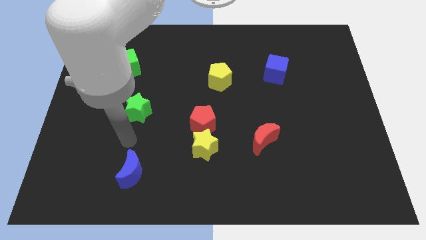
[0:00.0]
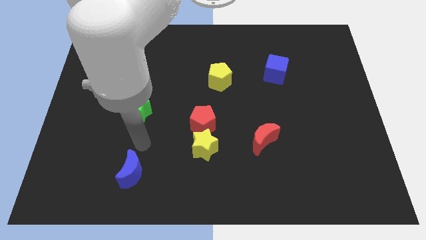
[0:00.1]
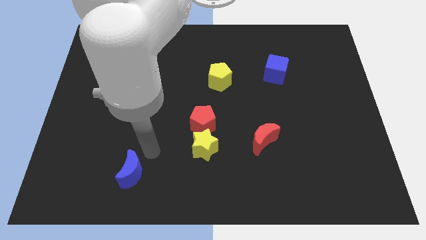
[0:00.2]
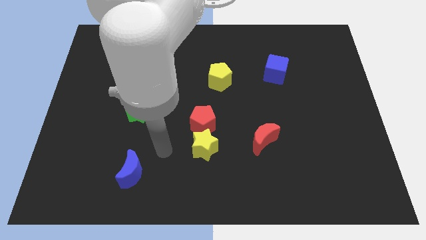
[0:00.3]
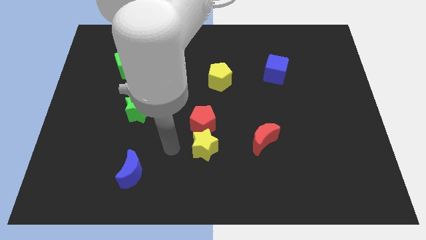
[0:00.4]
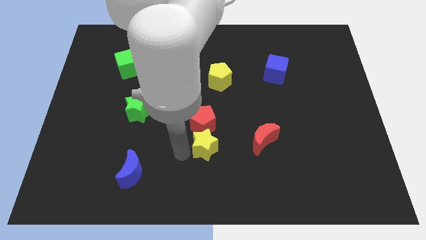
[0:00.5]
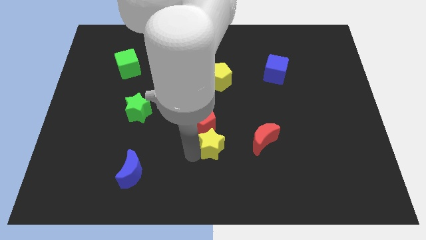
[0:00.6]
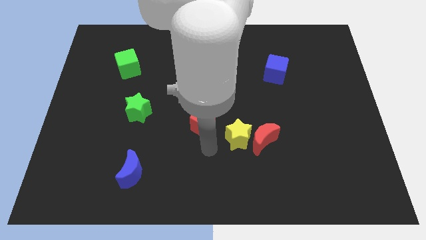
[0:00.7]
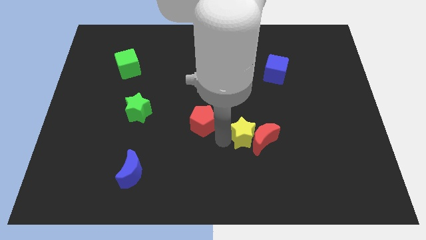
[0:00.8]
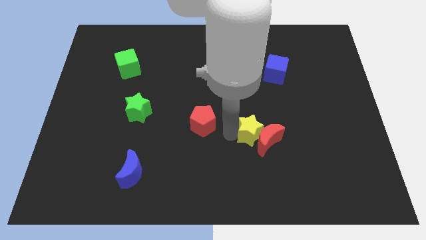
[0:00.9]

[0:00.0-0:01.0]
move the red pentagon away from the yellow star

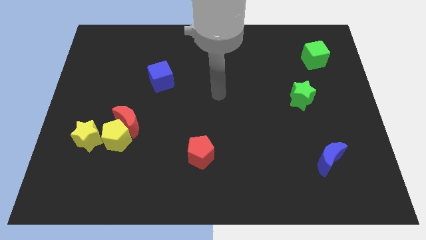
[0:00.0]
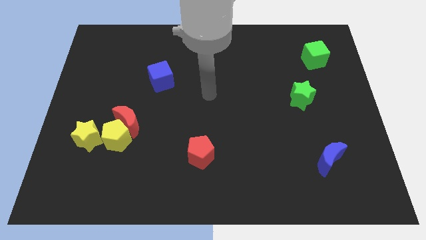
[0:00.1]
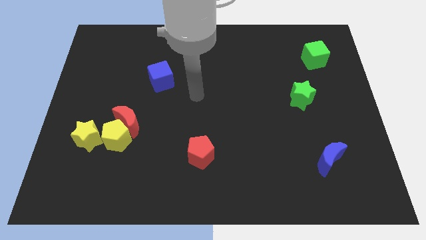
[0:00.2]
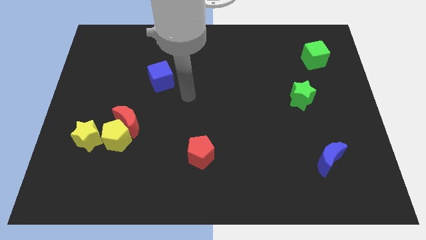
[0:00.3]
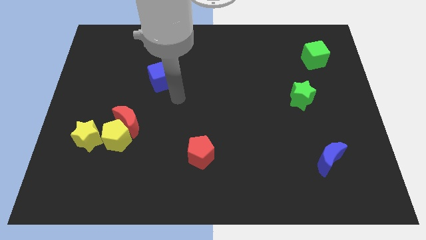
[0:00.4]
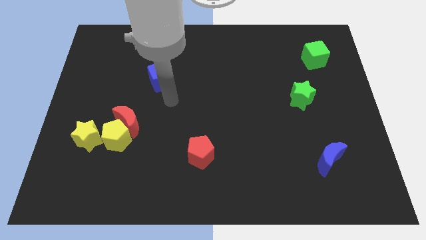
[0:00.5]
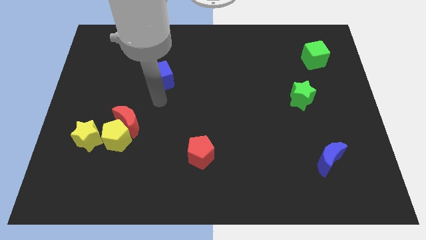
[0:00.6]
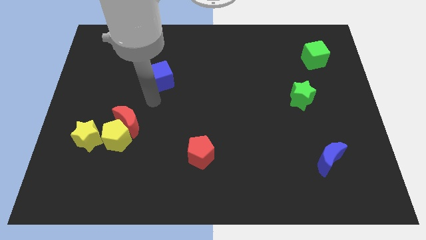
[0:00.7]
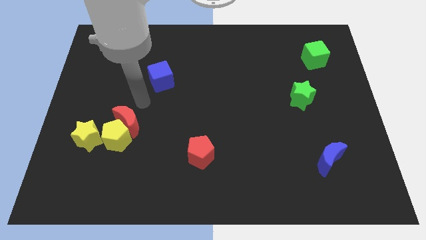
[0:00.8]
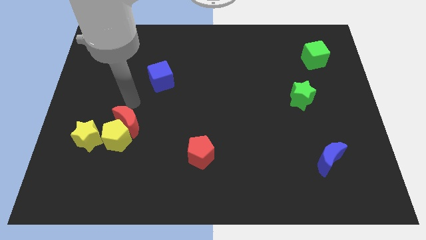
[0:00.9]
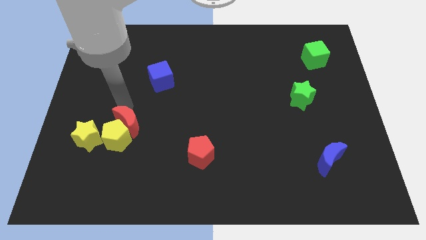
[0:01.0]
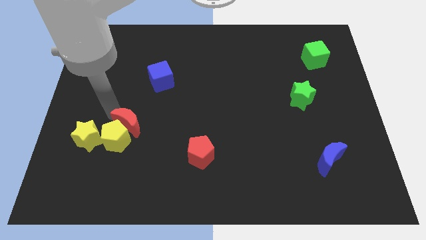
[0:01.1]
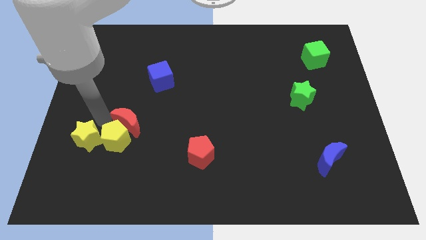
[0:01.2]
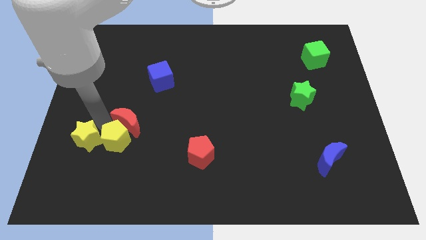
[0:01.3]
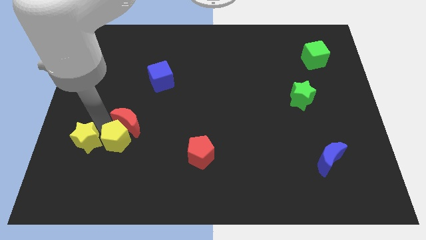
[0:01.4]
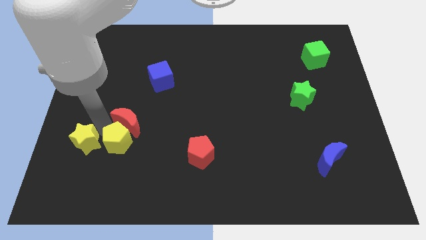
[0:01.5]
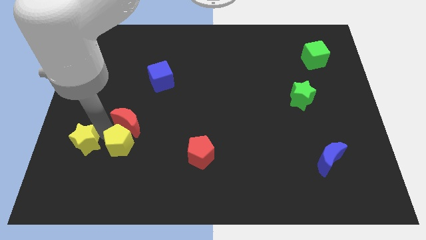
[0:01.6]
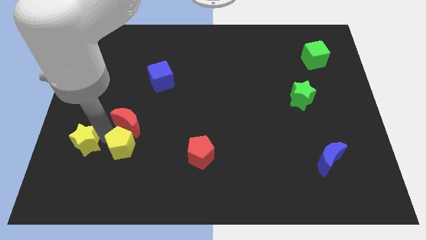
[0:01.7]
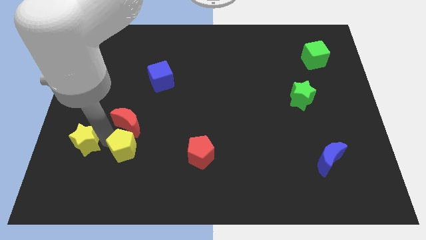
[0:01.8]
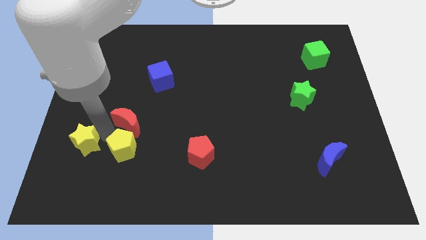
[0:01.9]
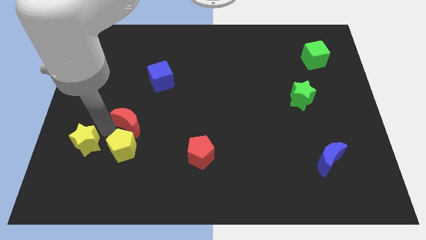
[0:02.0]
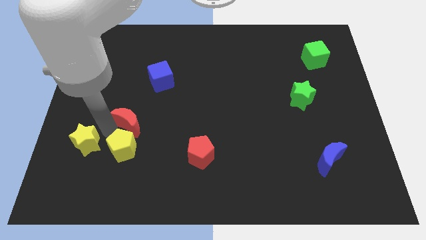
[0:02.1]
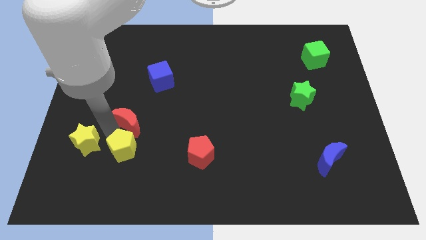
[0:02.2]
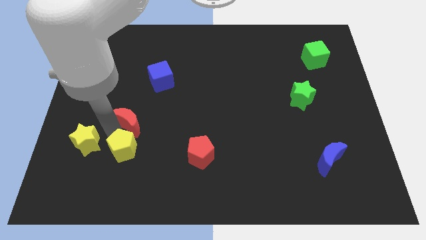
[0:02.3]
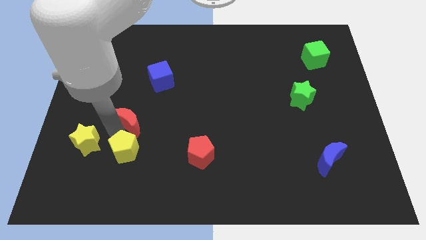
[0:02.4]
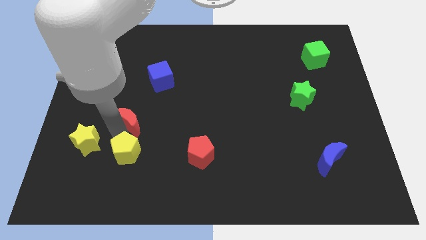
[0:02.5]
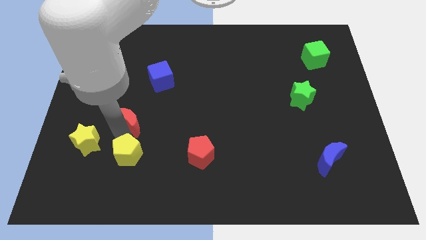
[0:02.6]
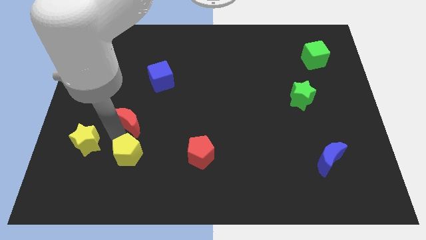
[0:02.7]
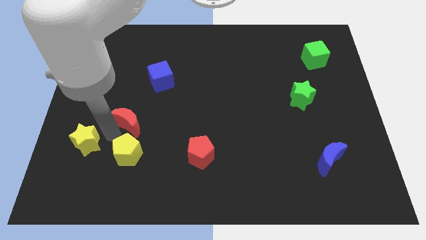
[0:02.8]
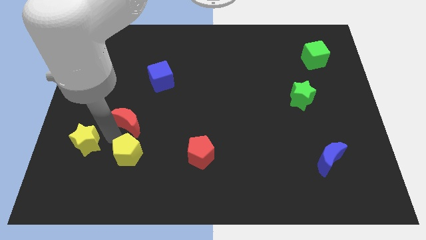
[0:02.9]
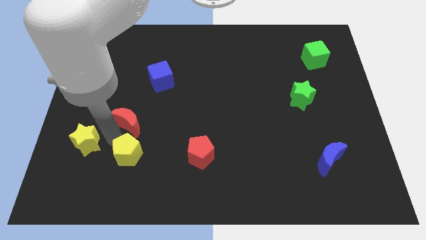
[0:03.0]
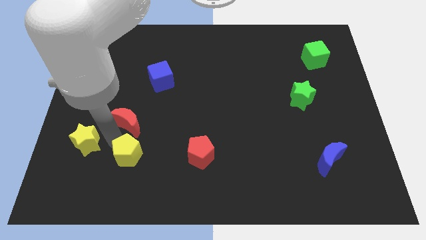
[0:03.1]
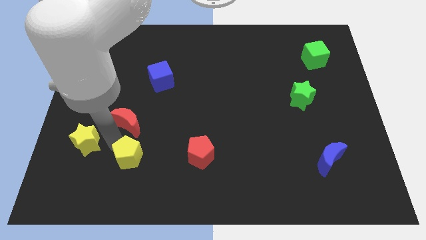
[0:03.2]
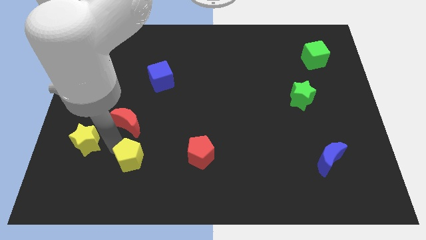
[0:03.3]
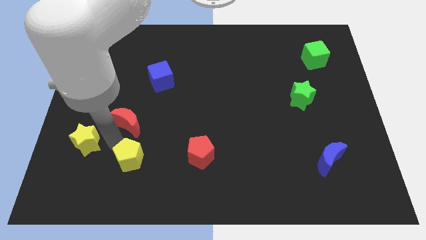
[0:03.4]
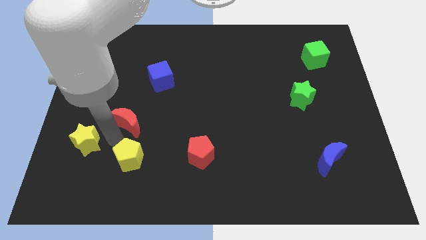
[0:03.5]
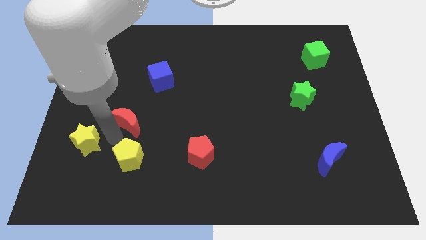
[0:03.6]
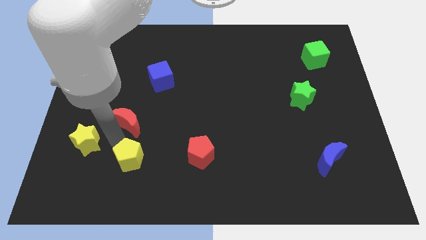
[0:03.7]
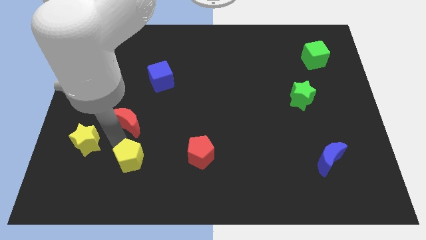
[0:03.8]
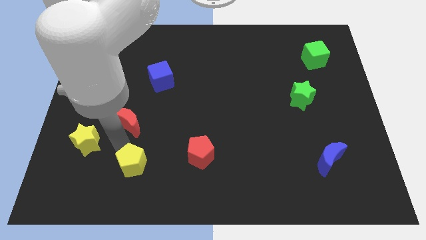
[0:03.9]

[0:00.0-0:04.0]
pull the yellow pentagon apart from the red moon and yellow star

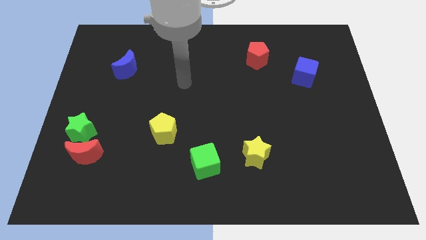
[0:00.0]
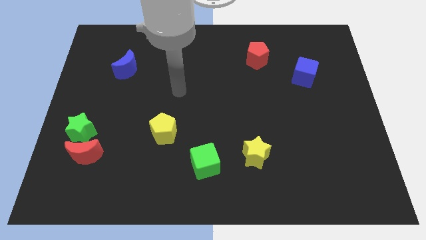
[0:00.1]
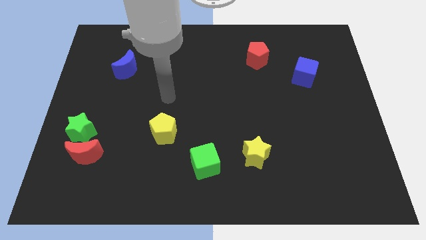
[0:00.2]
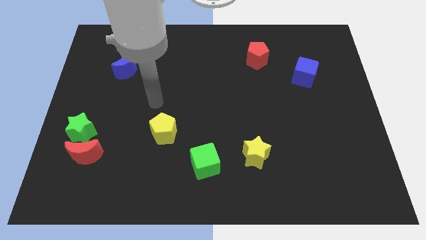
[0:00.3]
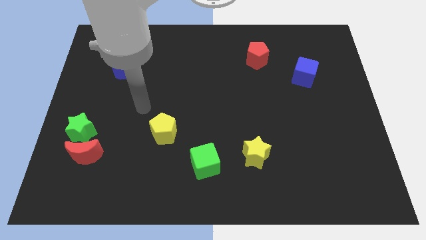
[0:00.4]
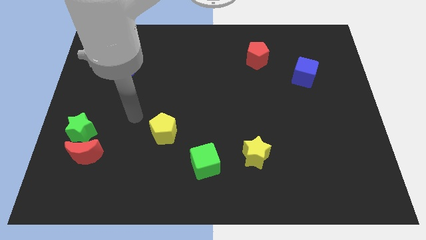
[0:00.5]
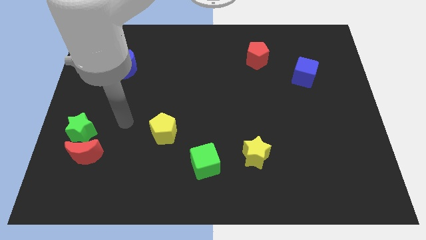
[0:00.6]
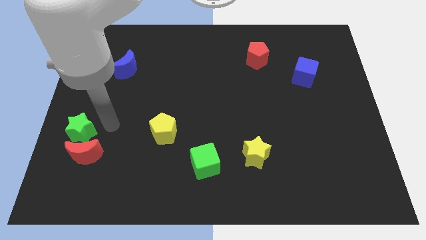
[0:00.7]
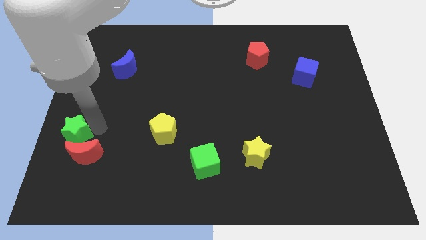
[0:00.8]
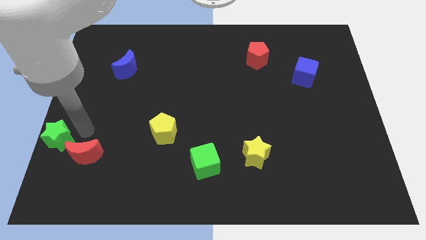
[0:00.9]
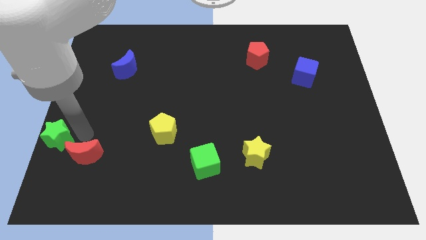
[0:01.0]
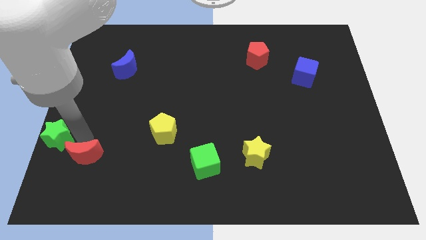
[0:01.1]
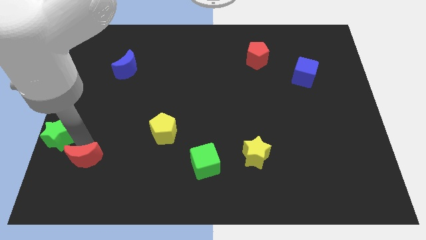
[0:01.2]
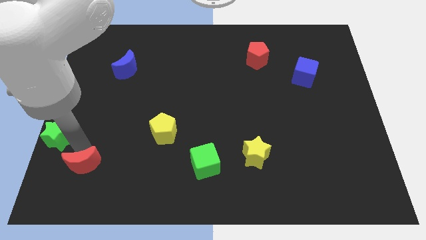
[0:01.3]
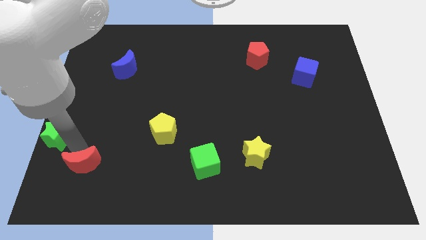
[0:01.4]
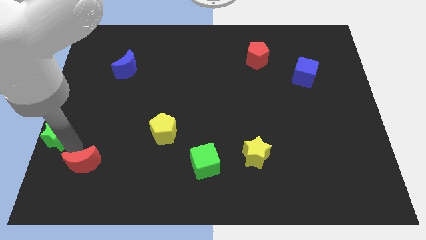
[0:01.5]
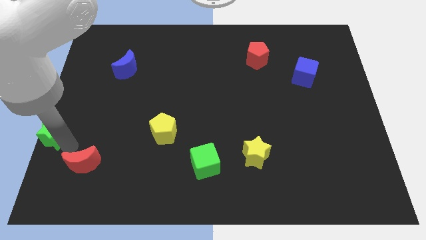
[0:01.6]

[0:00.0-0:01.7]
separate the red moon from the green star

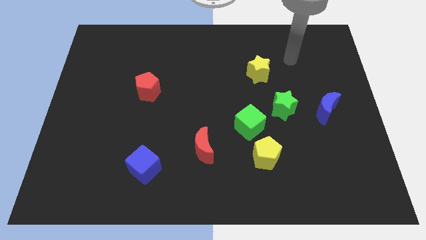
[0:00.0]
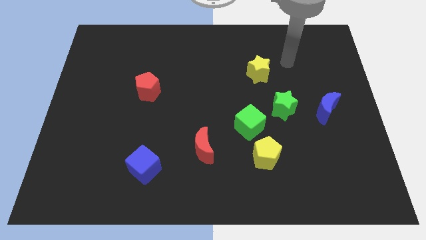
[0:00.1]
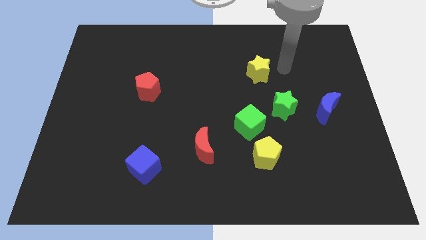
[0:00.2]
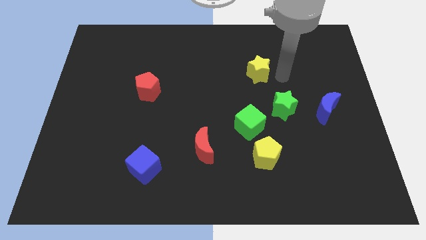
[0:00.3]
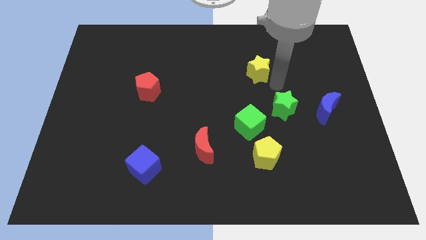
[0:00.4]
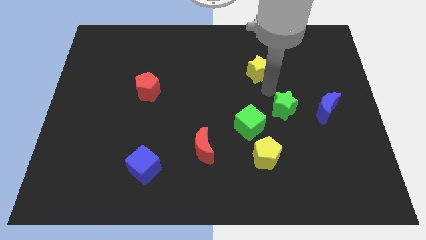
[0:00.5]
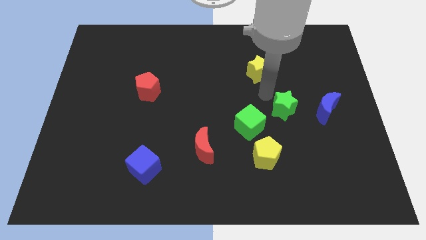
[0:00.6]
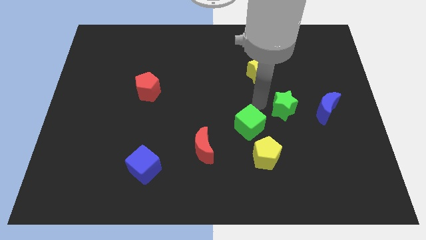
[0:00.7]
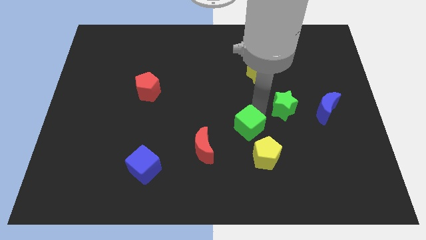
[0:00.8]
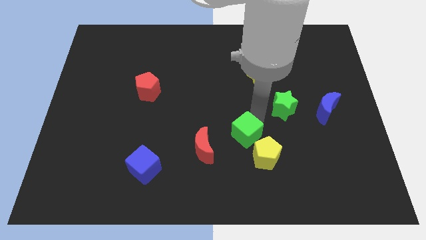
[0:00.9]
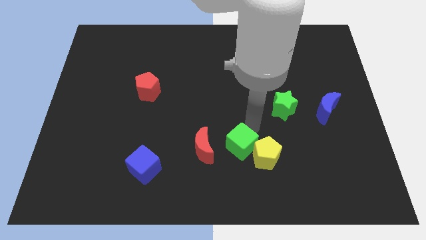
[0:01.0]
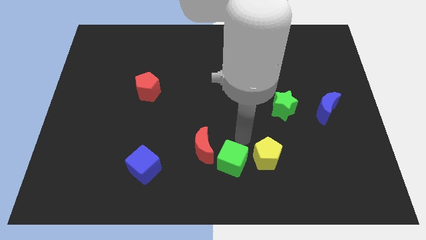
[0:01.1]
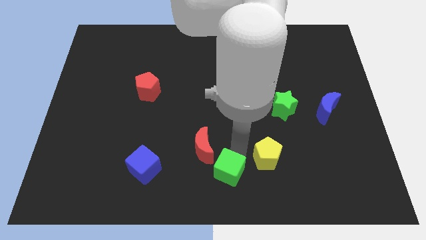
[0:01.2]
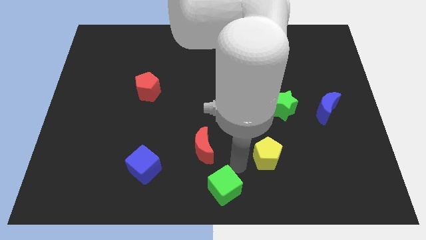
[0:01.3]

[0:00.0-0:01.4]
move the yellow pentagon away from the green cube

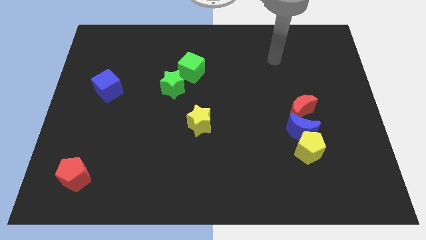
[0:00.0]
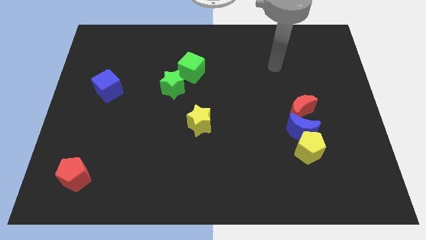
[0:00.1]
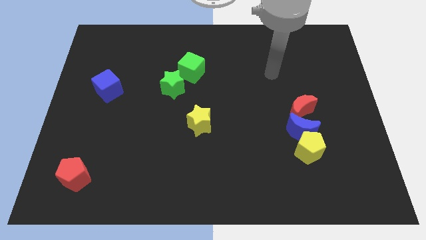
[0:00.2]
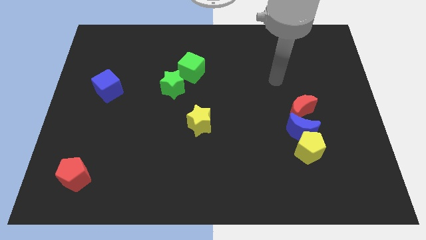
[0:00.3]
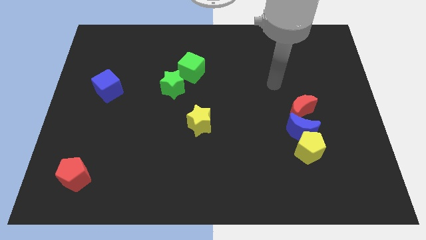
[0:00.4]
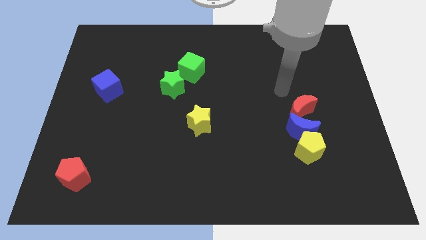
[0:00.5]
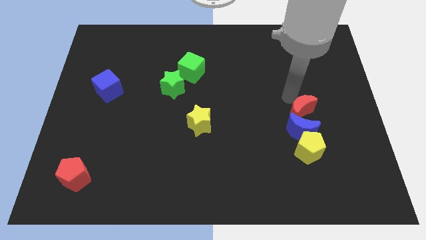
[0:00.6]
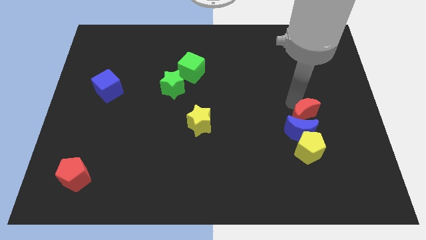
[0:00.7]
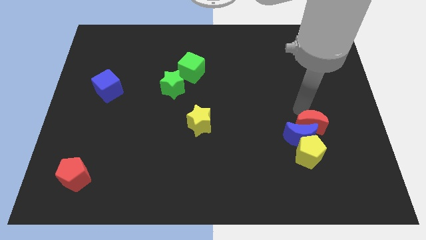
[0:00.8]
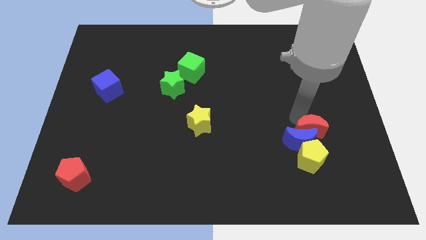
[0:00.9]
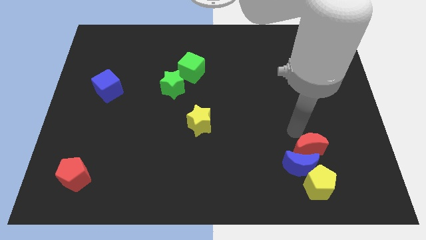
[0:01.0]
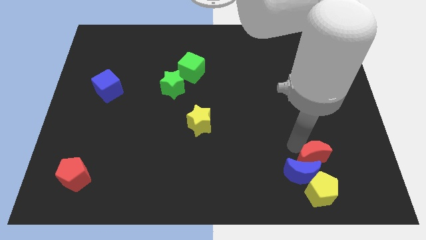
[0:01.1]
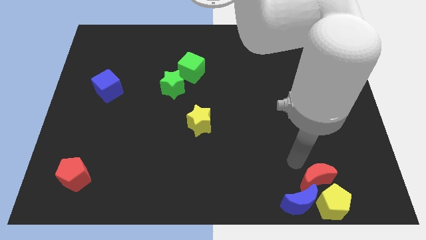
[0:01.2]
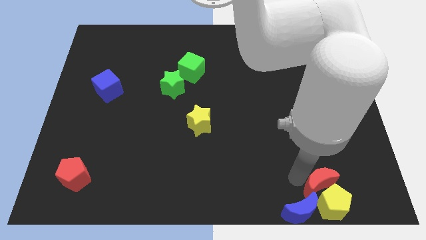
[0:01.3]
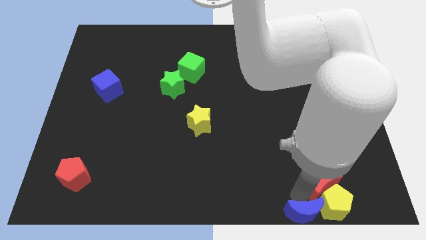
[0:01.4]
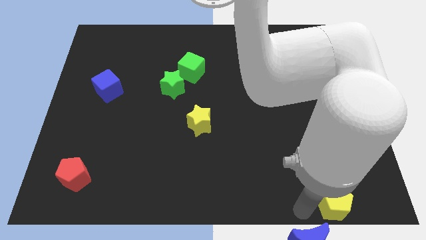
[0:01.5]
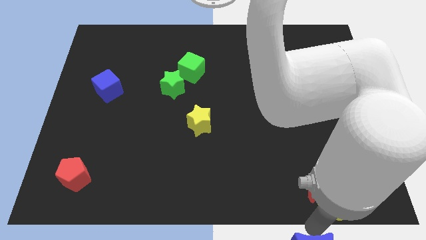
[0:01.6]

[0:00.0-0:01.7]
separate the yellow pentagon from the blue moon
